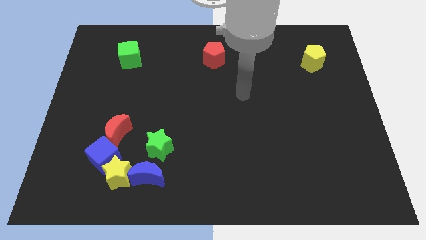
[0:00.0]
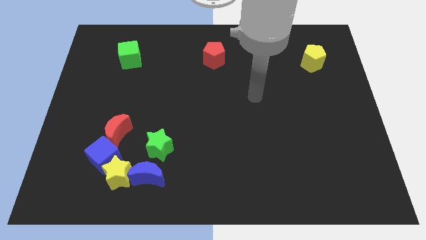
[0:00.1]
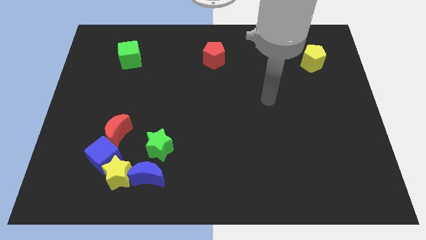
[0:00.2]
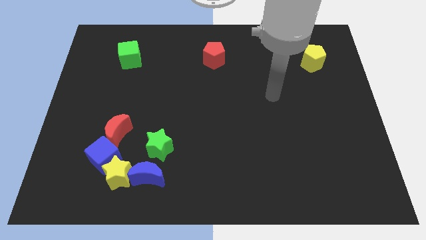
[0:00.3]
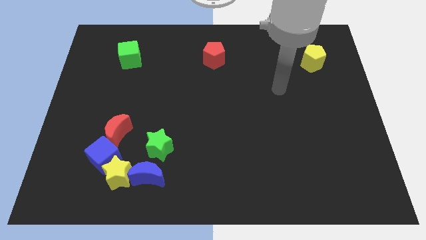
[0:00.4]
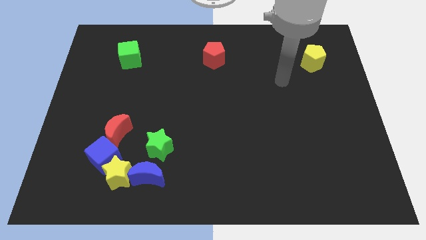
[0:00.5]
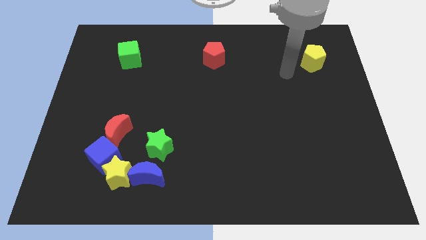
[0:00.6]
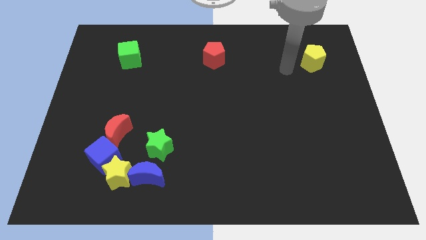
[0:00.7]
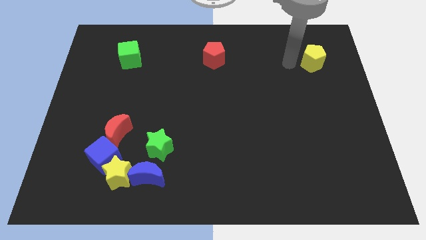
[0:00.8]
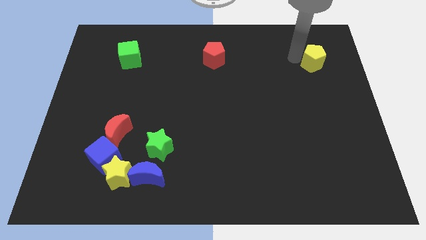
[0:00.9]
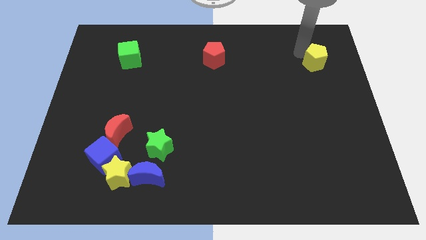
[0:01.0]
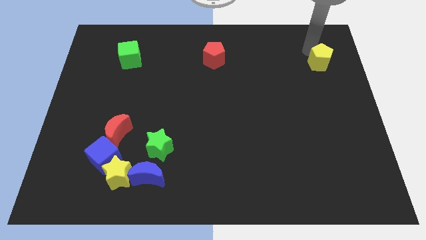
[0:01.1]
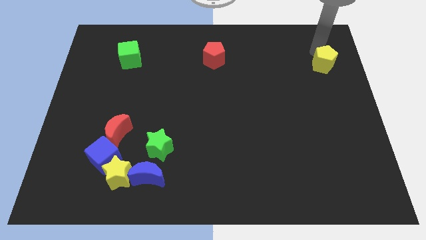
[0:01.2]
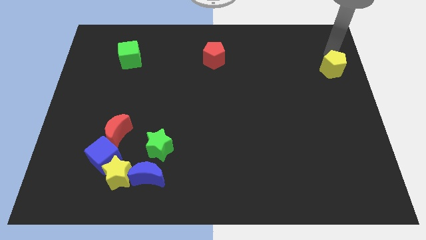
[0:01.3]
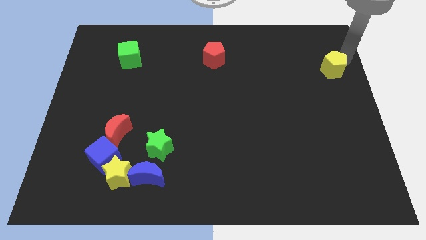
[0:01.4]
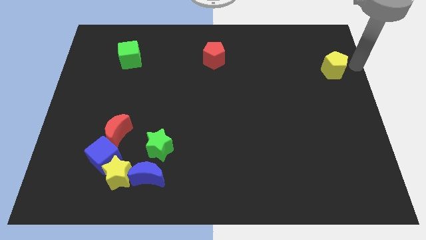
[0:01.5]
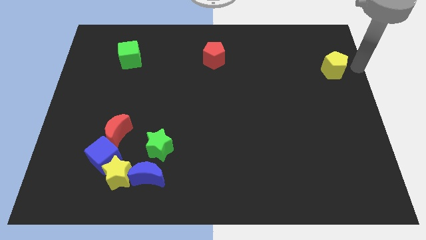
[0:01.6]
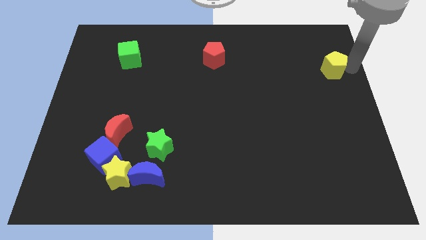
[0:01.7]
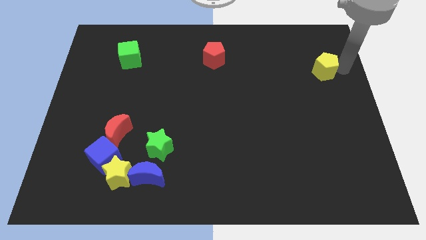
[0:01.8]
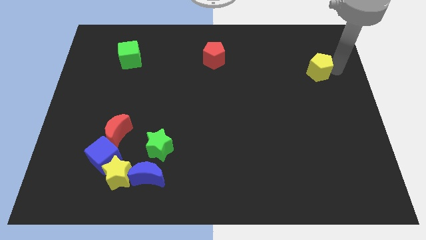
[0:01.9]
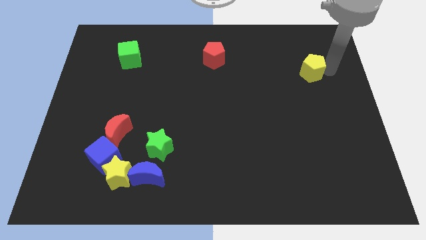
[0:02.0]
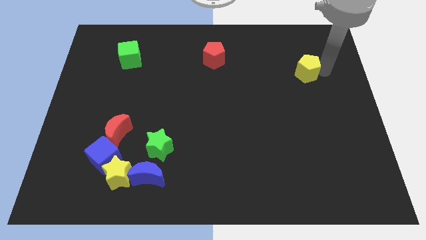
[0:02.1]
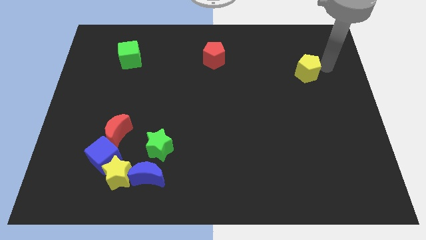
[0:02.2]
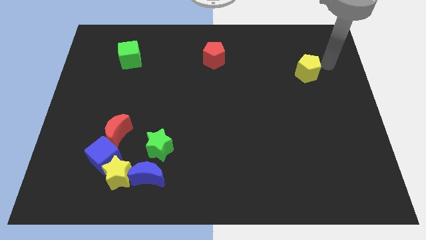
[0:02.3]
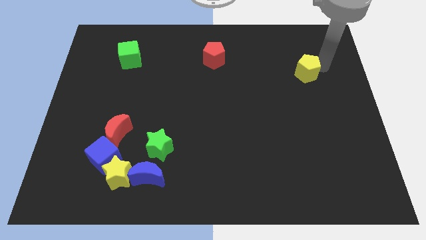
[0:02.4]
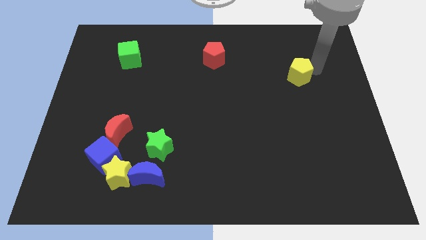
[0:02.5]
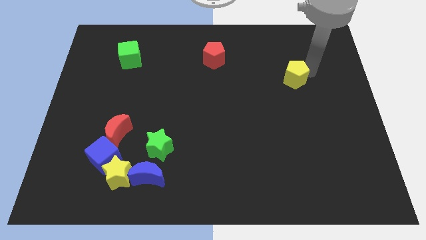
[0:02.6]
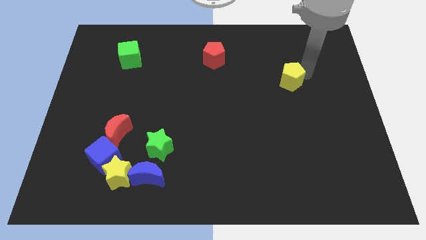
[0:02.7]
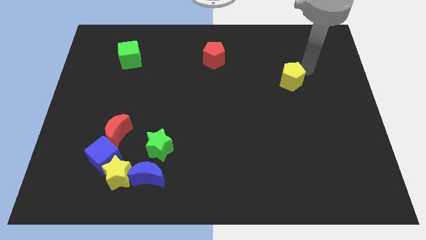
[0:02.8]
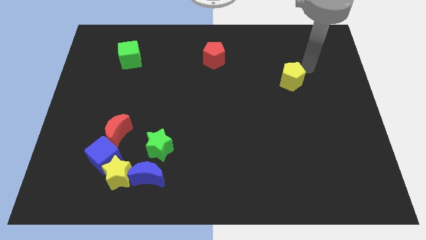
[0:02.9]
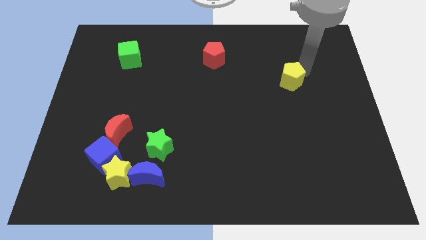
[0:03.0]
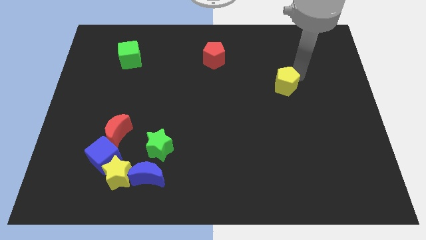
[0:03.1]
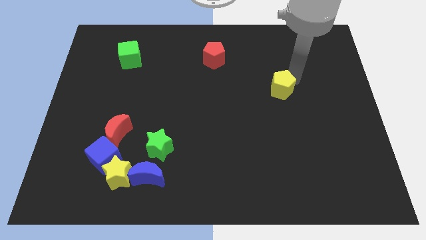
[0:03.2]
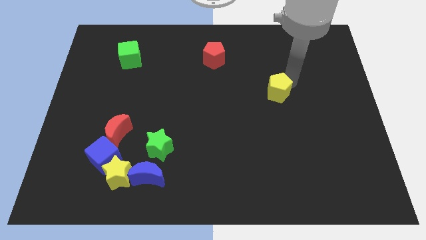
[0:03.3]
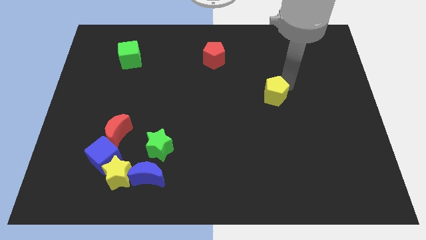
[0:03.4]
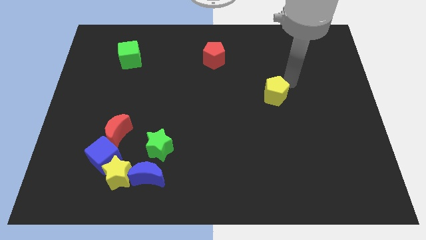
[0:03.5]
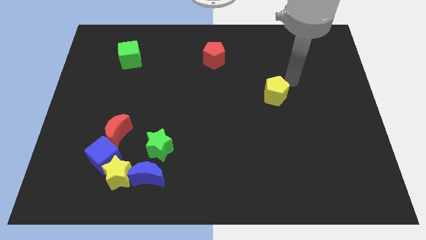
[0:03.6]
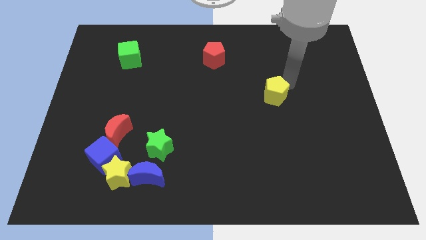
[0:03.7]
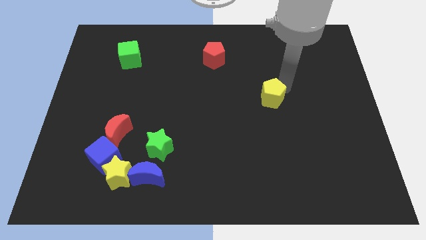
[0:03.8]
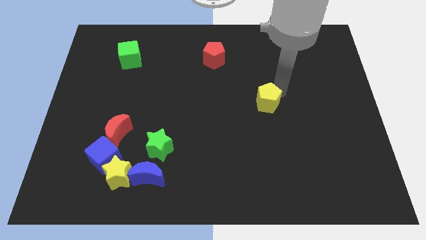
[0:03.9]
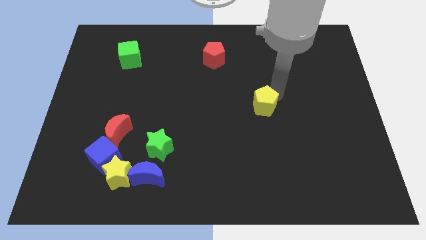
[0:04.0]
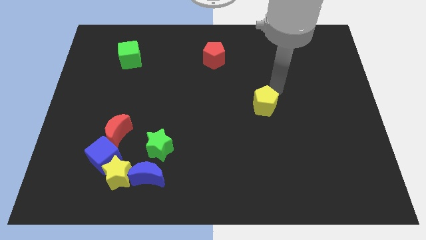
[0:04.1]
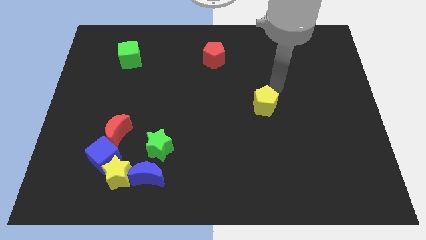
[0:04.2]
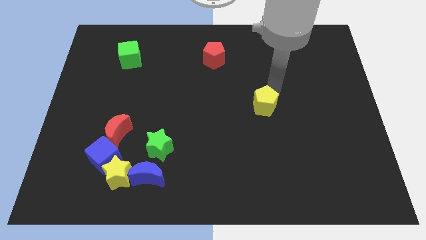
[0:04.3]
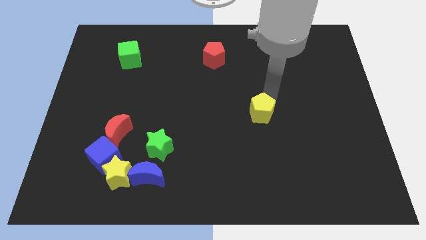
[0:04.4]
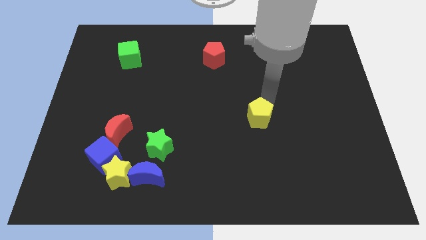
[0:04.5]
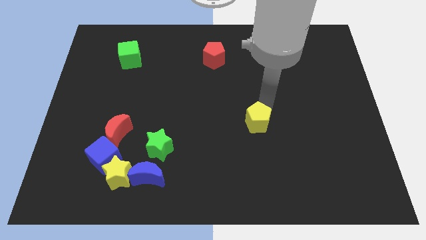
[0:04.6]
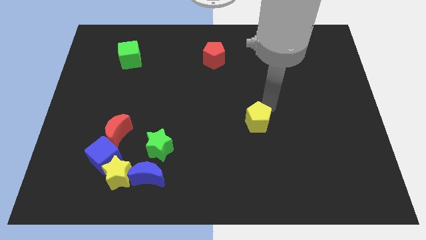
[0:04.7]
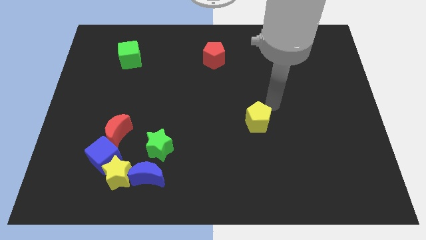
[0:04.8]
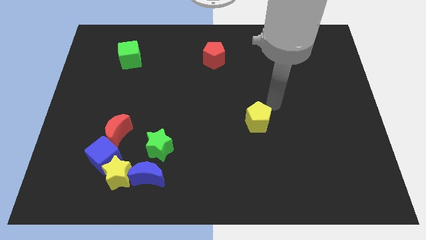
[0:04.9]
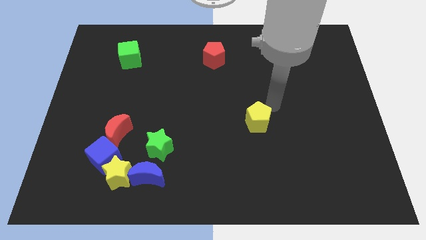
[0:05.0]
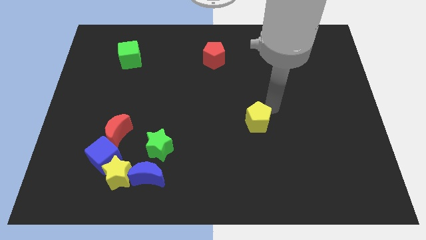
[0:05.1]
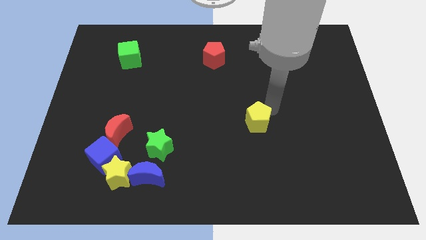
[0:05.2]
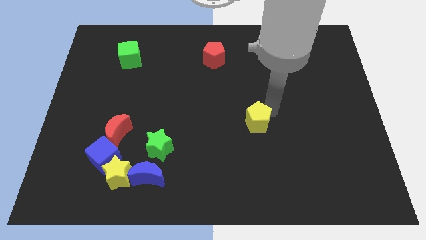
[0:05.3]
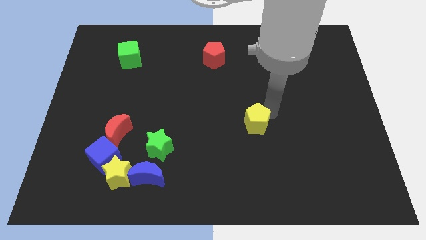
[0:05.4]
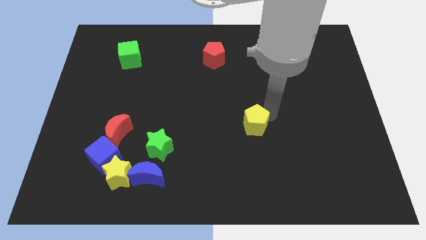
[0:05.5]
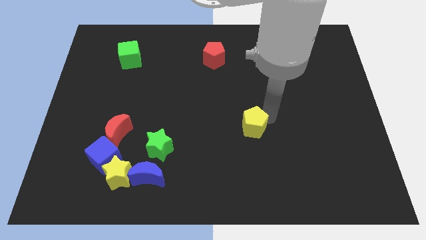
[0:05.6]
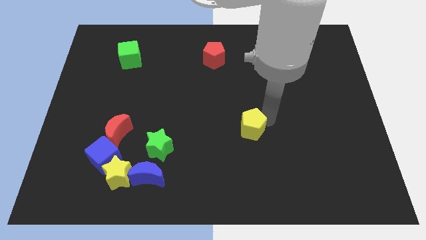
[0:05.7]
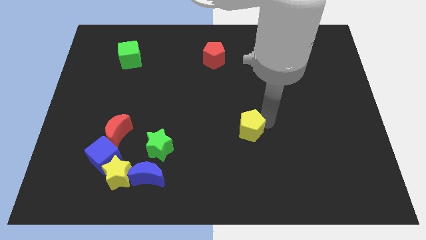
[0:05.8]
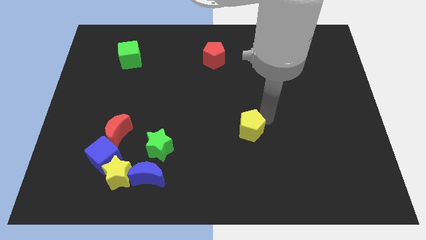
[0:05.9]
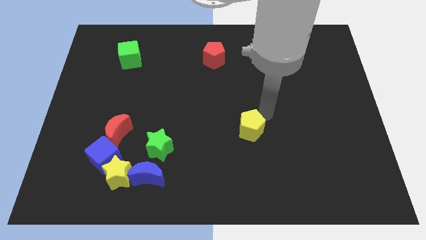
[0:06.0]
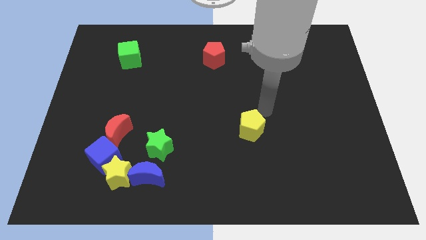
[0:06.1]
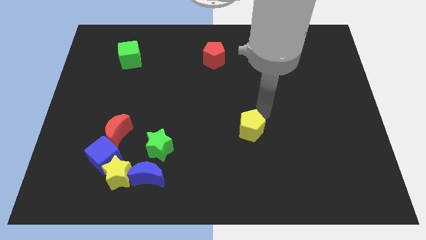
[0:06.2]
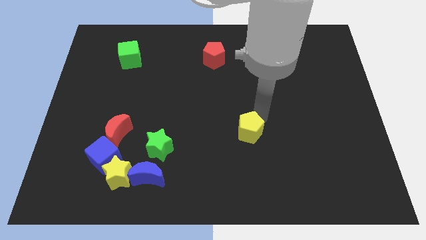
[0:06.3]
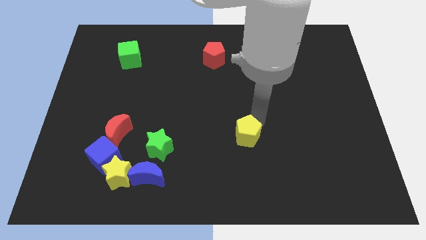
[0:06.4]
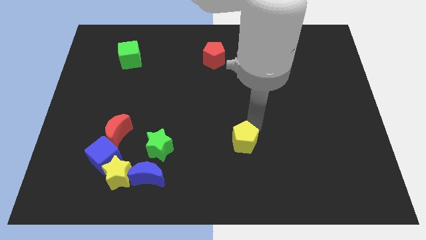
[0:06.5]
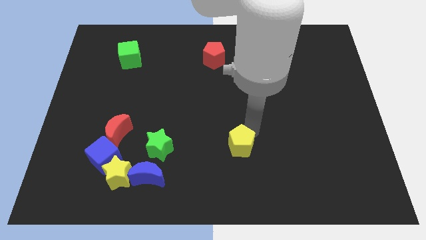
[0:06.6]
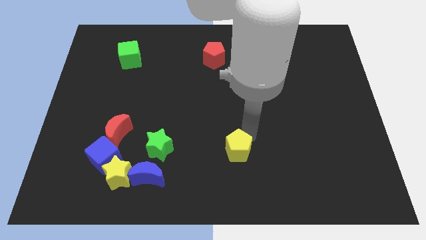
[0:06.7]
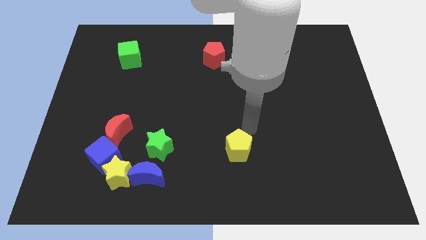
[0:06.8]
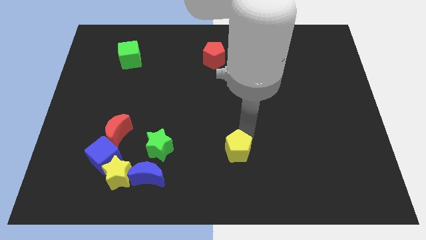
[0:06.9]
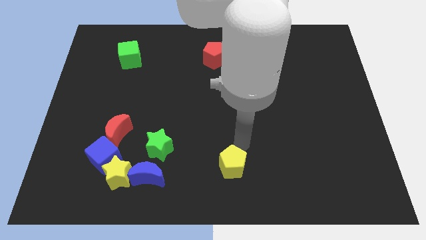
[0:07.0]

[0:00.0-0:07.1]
move the yellow pentagon to the bottom
